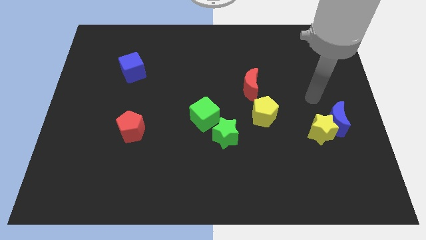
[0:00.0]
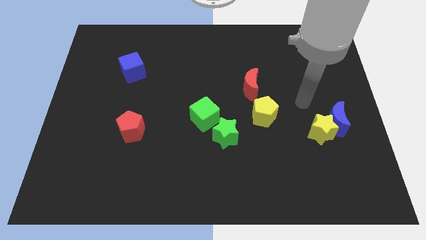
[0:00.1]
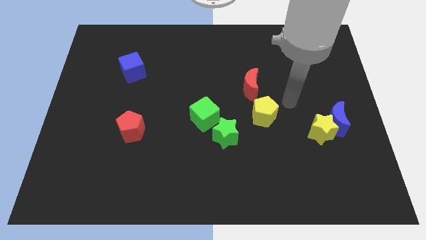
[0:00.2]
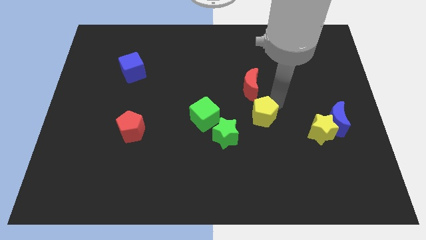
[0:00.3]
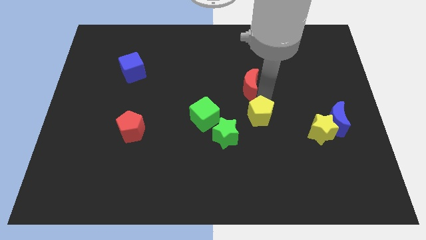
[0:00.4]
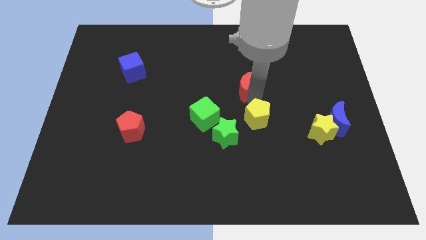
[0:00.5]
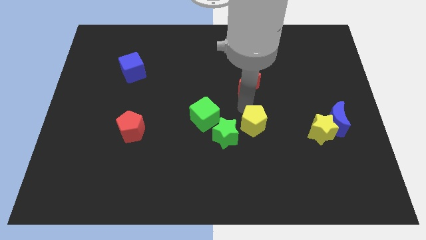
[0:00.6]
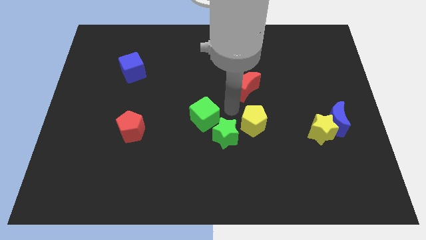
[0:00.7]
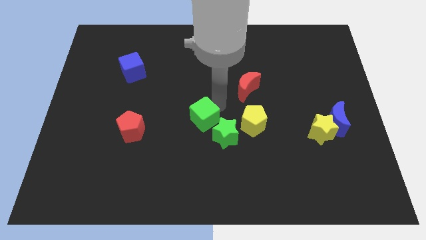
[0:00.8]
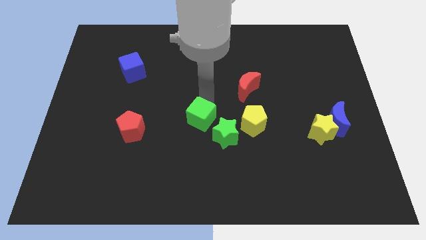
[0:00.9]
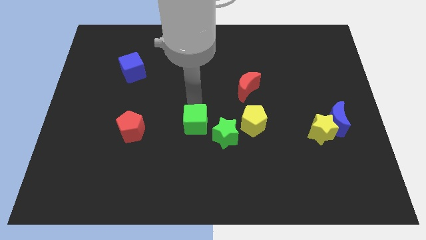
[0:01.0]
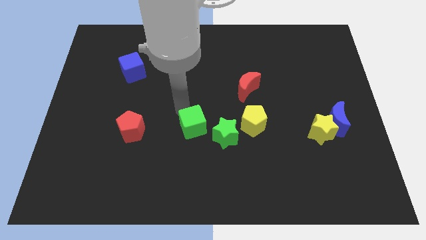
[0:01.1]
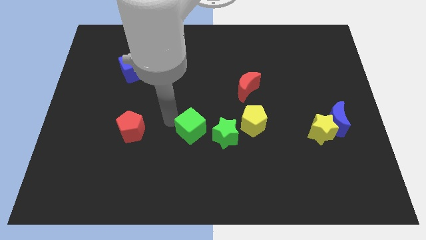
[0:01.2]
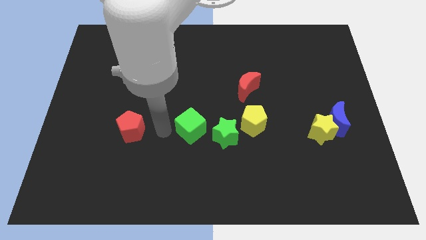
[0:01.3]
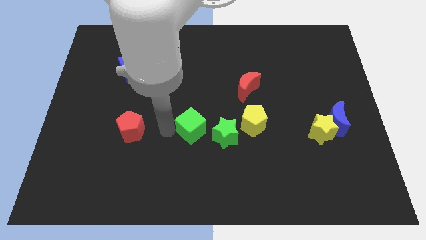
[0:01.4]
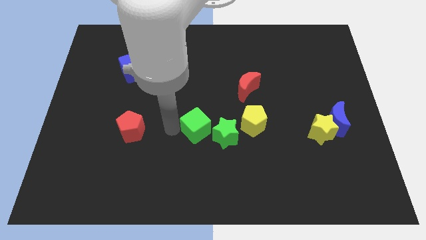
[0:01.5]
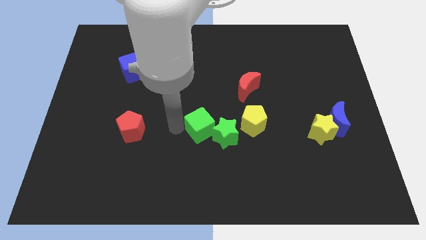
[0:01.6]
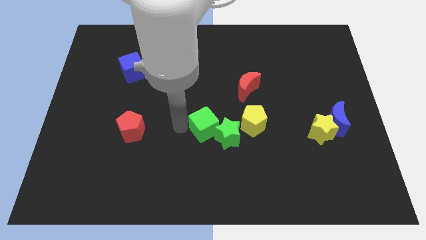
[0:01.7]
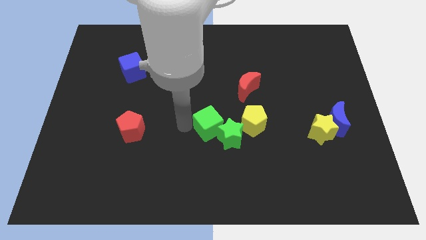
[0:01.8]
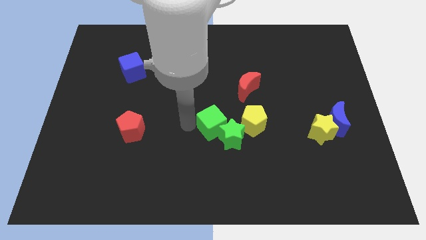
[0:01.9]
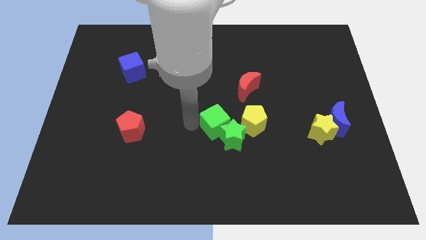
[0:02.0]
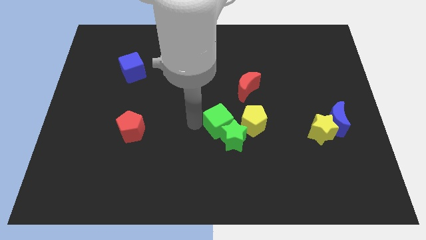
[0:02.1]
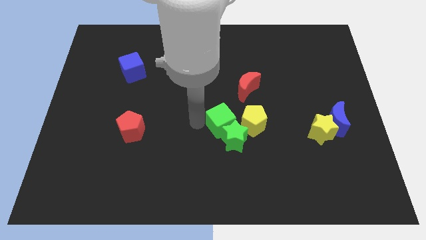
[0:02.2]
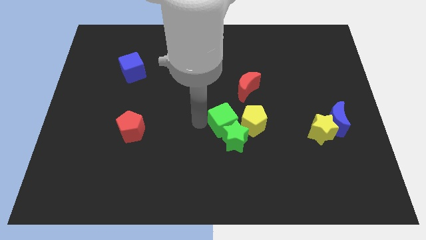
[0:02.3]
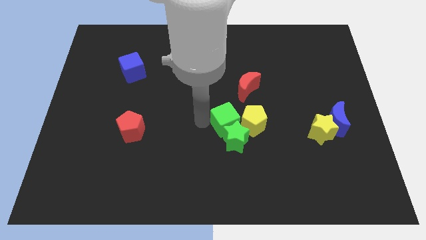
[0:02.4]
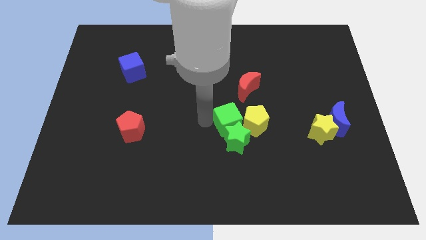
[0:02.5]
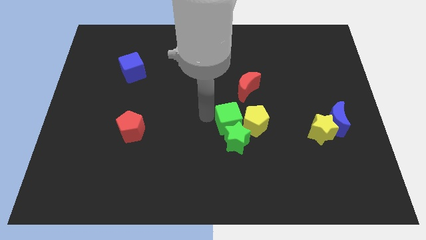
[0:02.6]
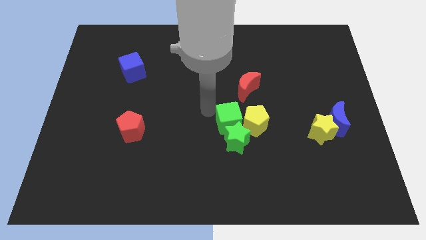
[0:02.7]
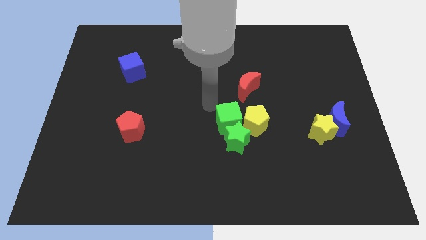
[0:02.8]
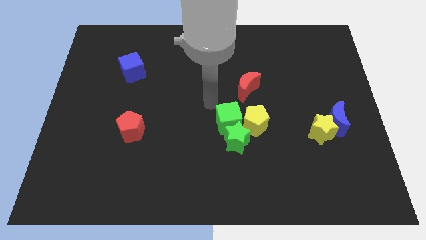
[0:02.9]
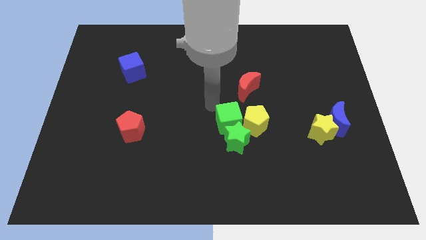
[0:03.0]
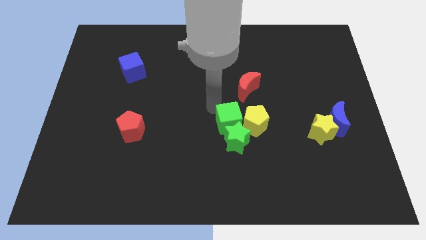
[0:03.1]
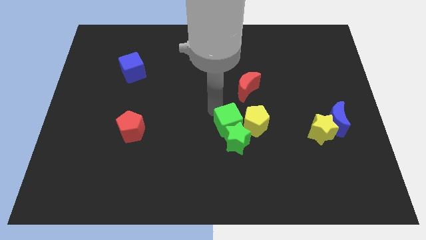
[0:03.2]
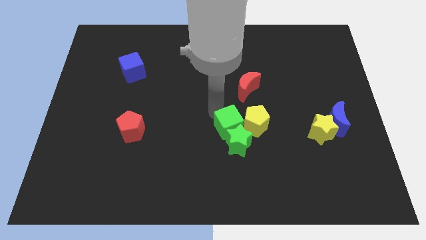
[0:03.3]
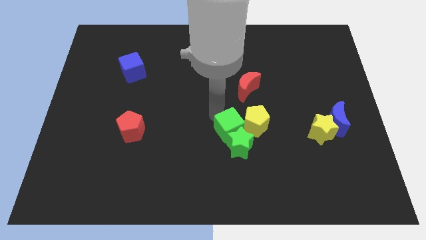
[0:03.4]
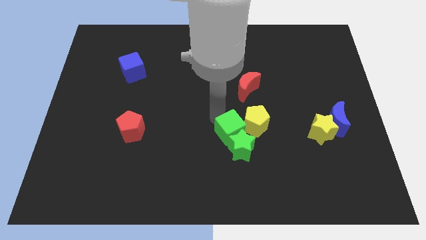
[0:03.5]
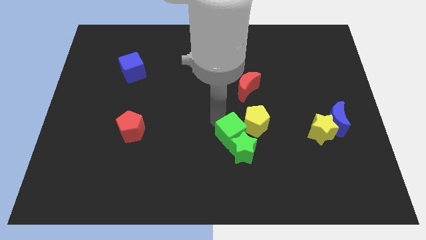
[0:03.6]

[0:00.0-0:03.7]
move the green cube downwards and to the right diagonally somewhat

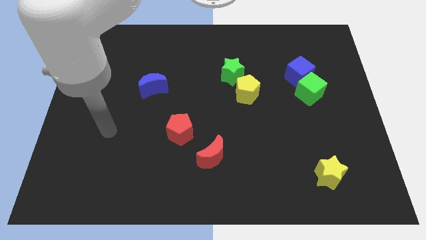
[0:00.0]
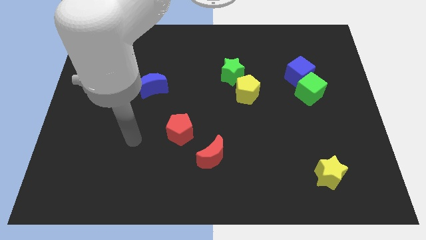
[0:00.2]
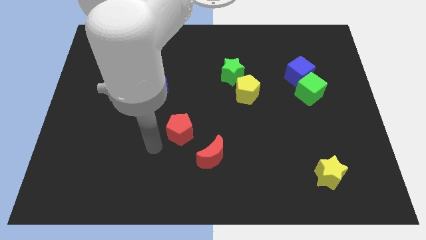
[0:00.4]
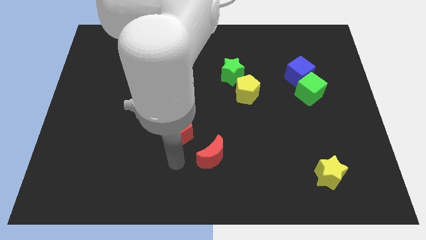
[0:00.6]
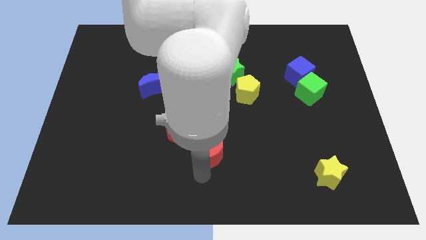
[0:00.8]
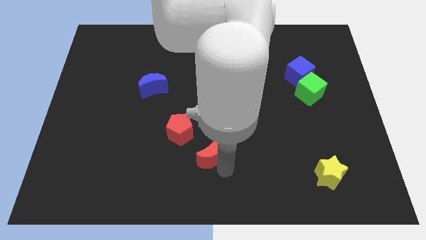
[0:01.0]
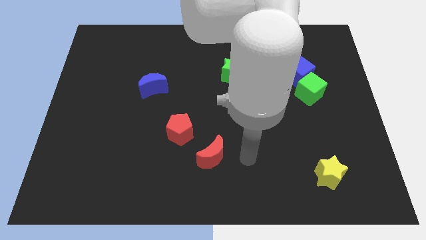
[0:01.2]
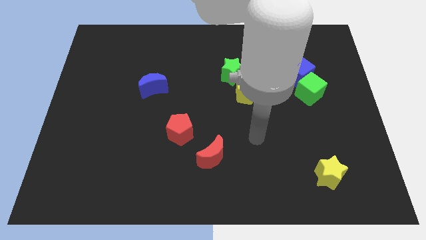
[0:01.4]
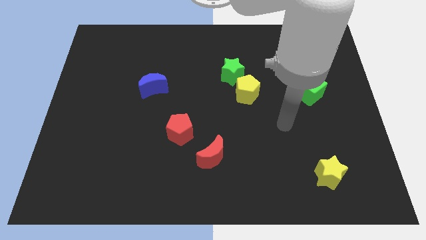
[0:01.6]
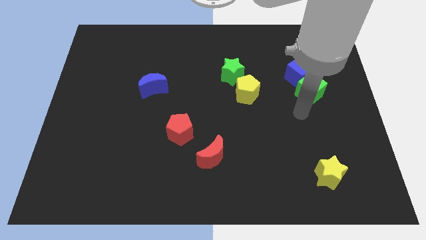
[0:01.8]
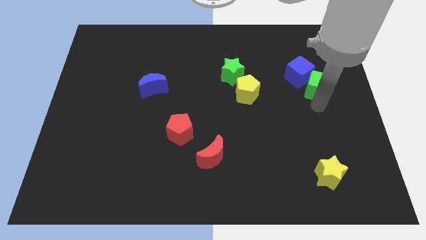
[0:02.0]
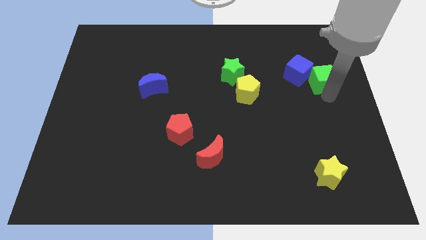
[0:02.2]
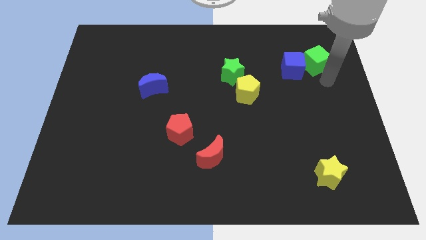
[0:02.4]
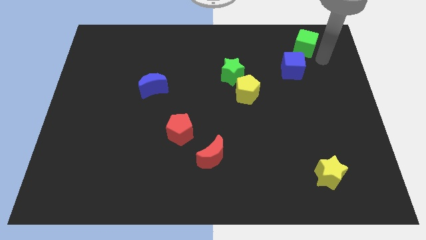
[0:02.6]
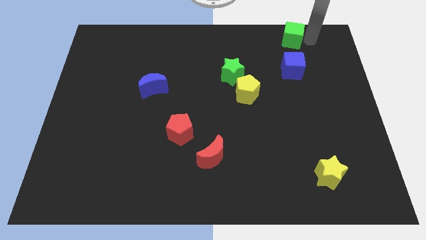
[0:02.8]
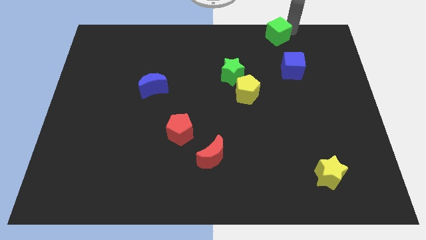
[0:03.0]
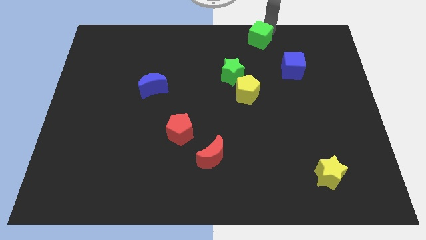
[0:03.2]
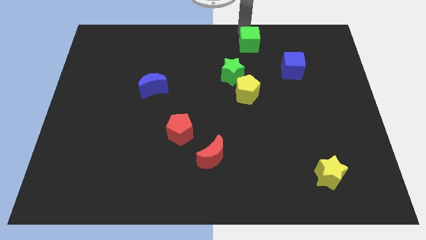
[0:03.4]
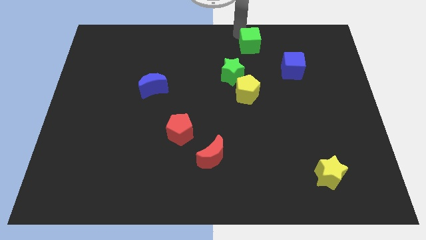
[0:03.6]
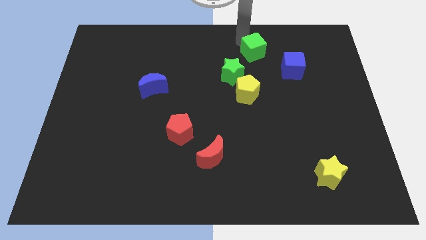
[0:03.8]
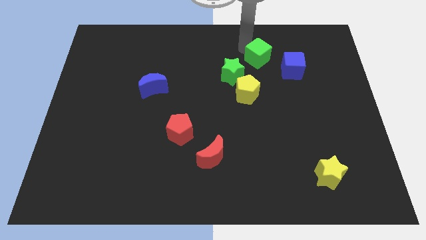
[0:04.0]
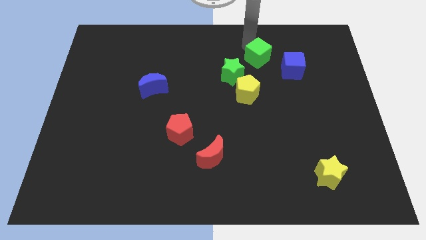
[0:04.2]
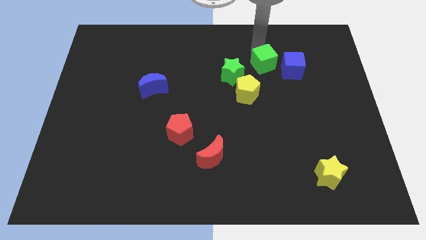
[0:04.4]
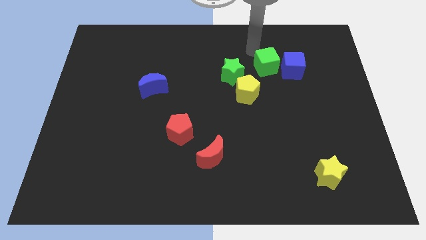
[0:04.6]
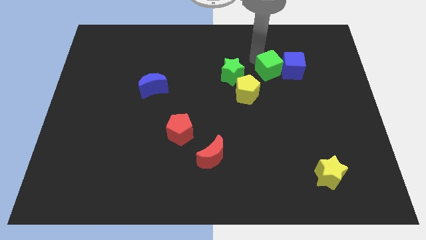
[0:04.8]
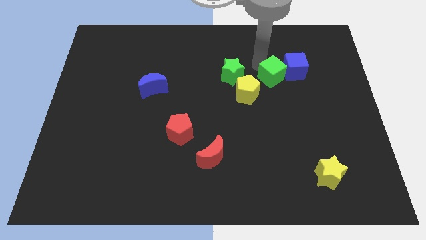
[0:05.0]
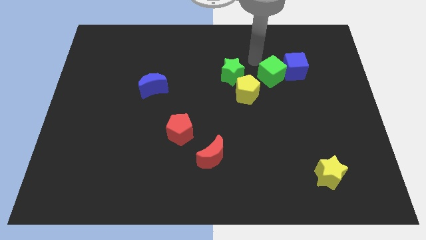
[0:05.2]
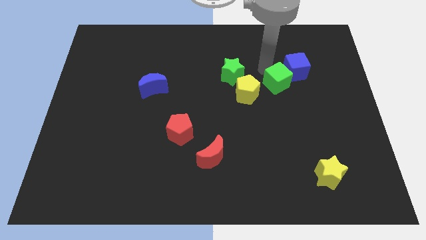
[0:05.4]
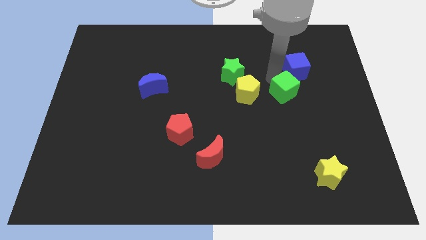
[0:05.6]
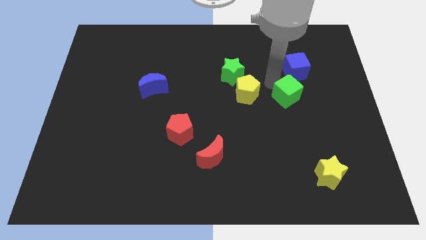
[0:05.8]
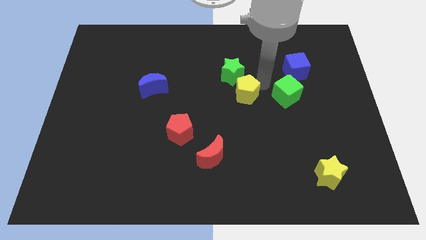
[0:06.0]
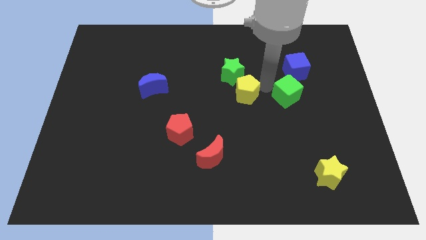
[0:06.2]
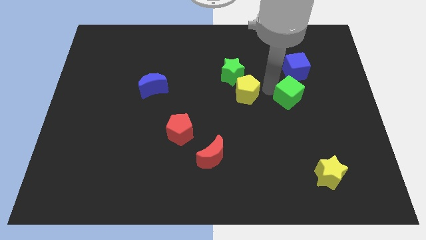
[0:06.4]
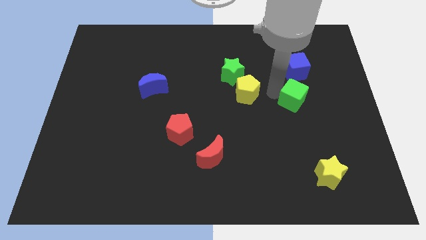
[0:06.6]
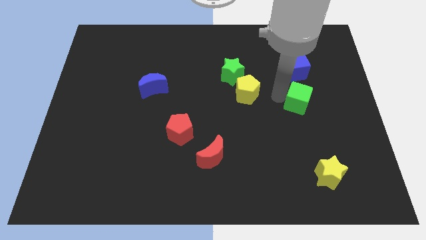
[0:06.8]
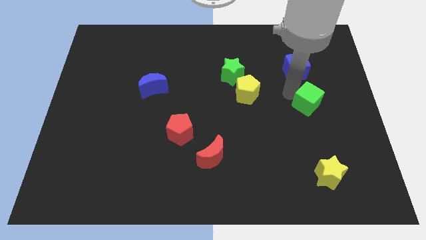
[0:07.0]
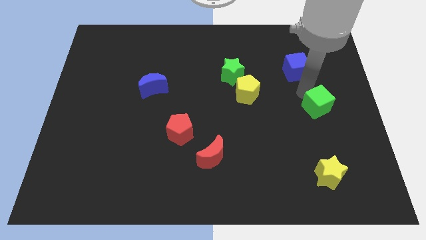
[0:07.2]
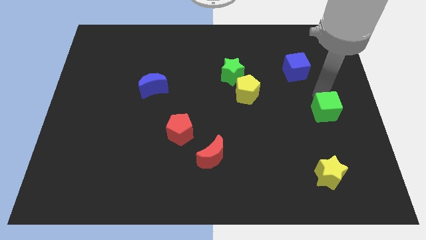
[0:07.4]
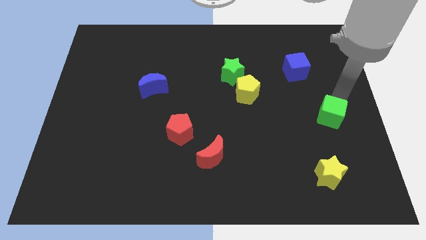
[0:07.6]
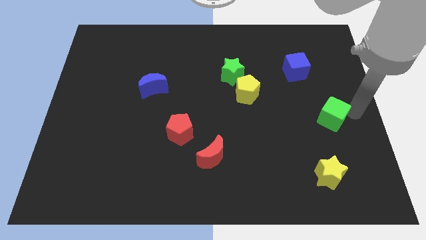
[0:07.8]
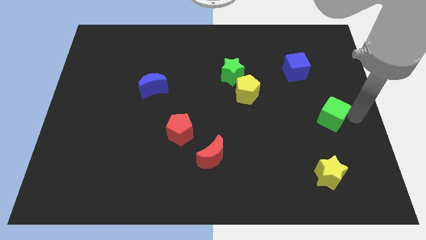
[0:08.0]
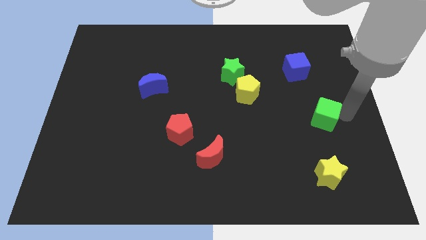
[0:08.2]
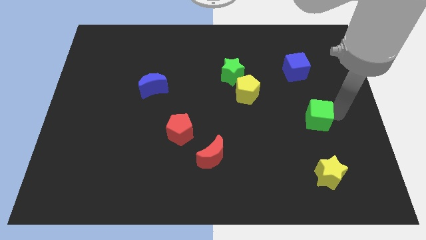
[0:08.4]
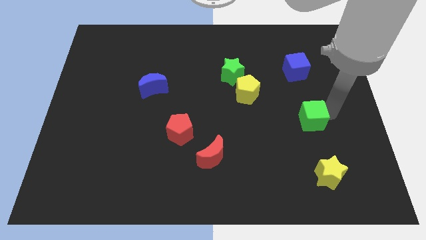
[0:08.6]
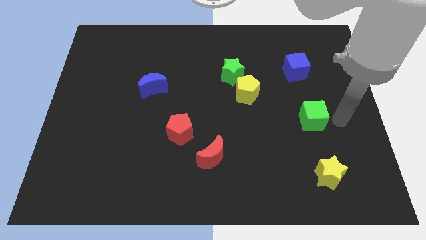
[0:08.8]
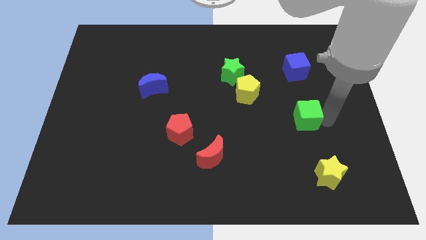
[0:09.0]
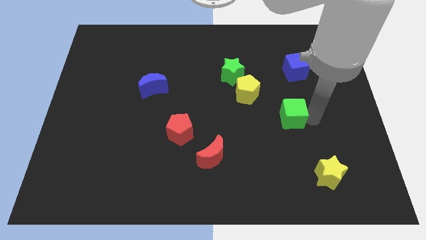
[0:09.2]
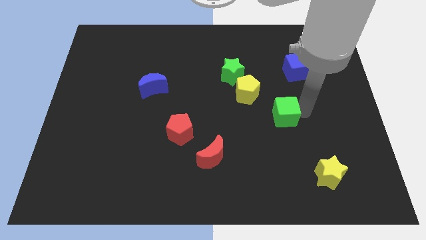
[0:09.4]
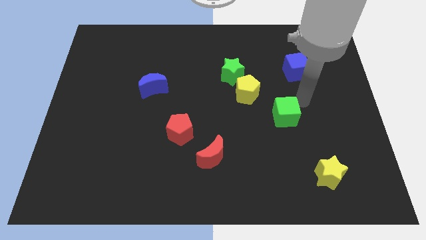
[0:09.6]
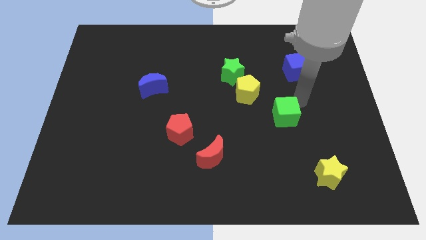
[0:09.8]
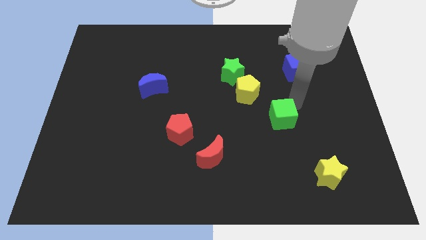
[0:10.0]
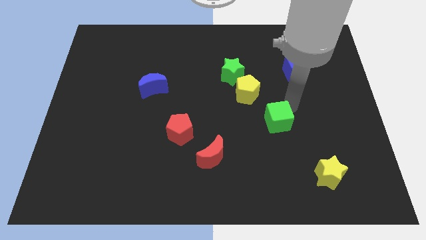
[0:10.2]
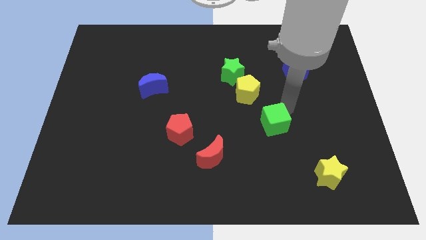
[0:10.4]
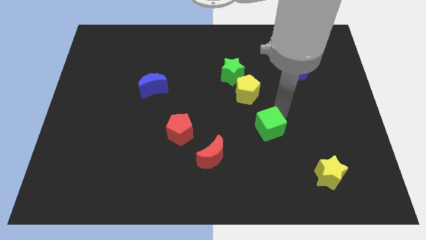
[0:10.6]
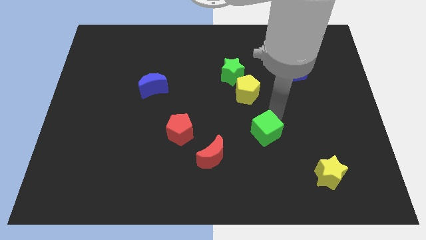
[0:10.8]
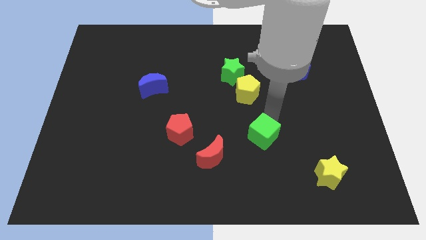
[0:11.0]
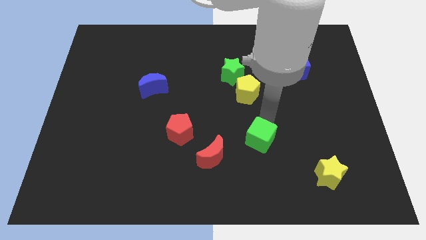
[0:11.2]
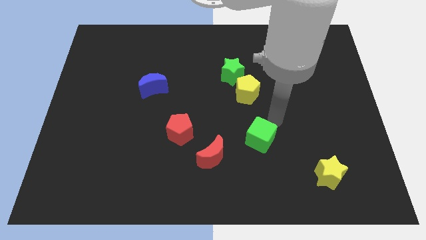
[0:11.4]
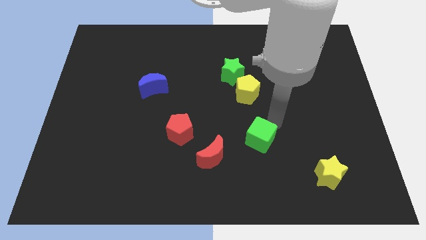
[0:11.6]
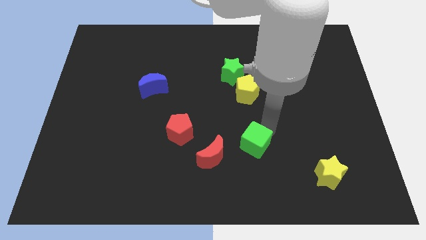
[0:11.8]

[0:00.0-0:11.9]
move the green cube down and to the left diagonally
